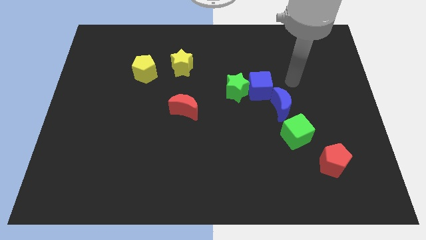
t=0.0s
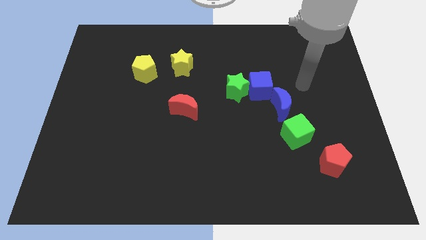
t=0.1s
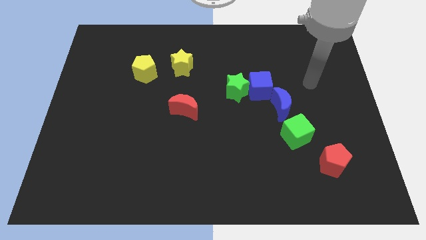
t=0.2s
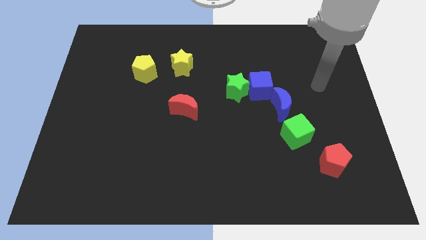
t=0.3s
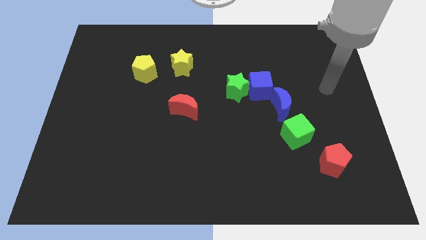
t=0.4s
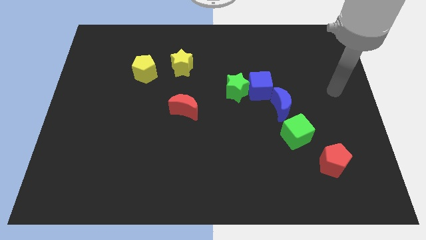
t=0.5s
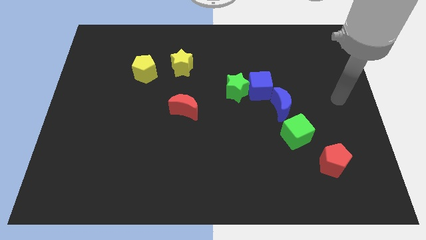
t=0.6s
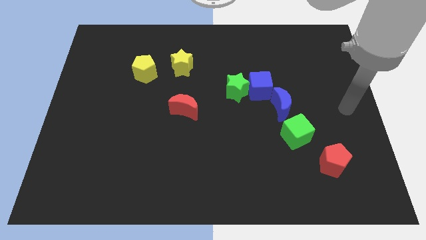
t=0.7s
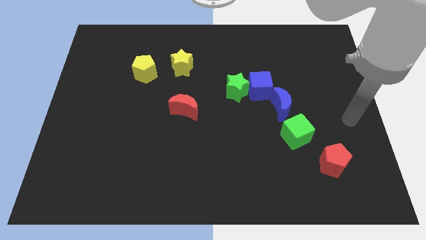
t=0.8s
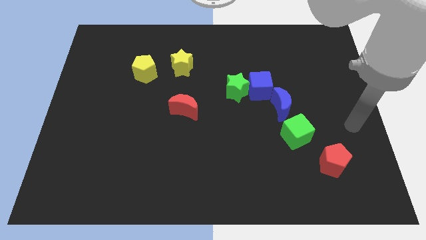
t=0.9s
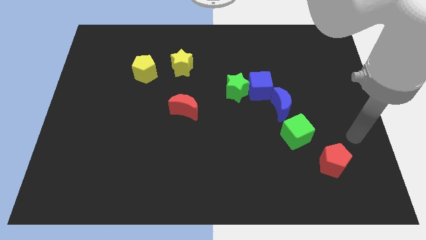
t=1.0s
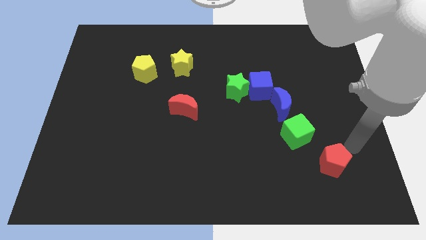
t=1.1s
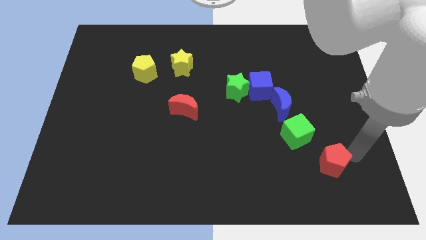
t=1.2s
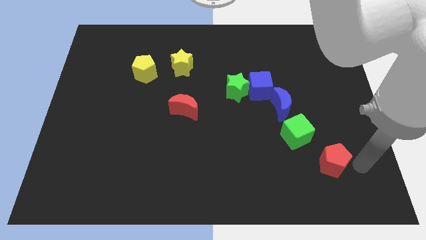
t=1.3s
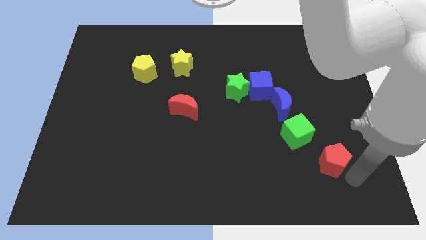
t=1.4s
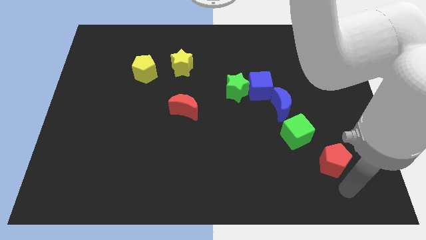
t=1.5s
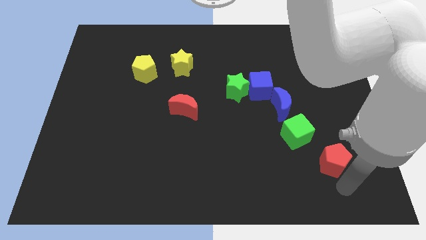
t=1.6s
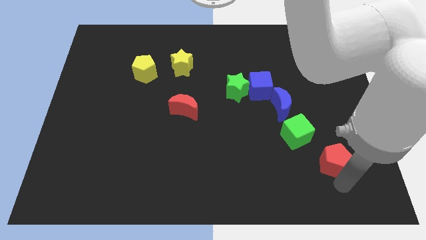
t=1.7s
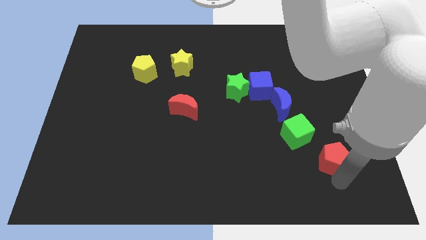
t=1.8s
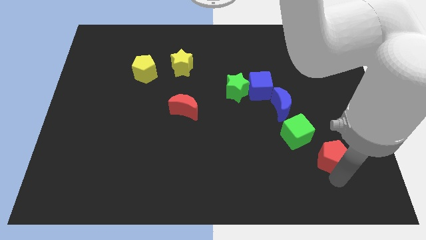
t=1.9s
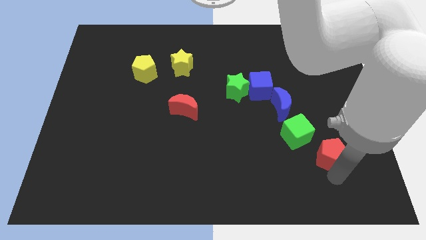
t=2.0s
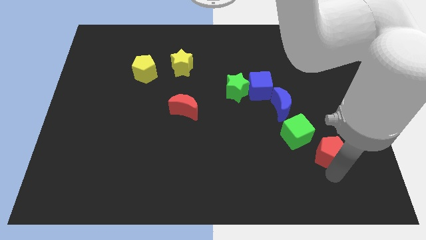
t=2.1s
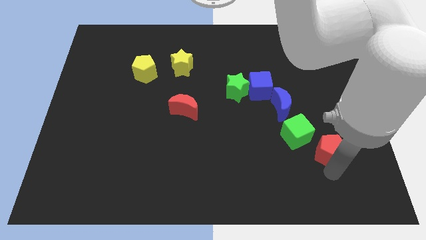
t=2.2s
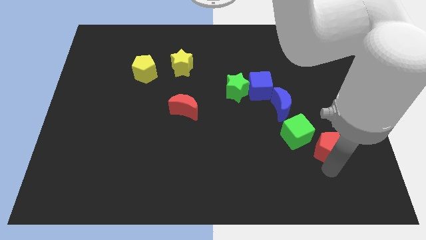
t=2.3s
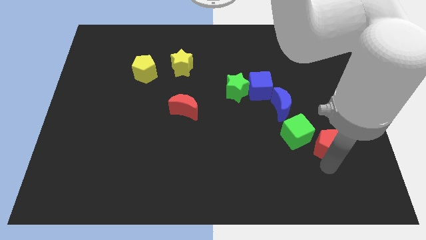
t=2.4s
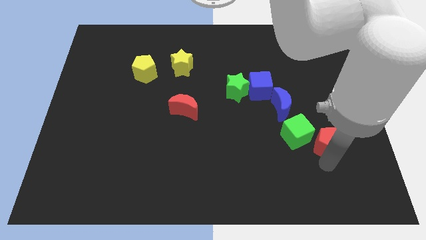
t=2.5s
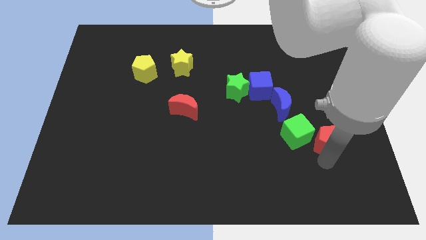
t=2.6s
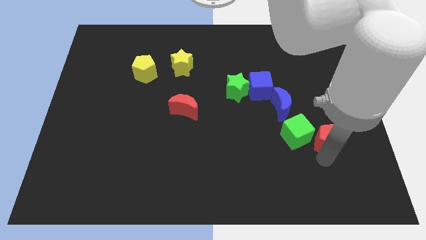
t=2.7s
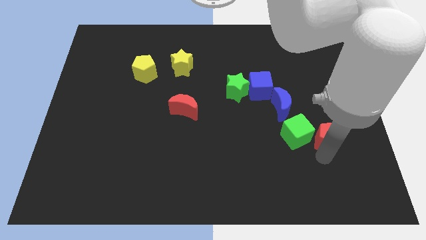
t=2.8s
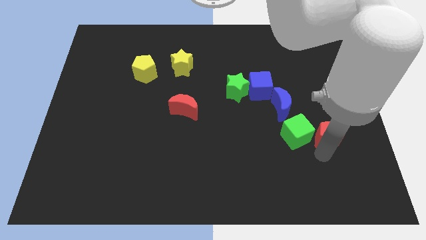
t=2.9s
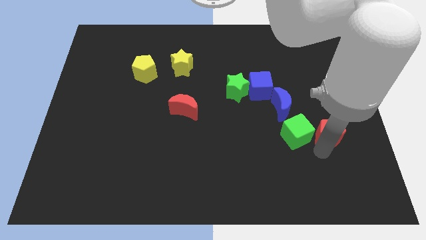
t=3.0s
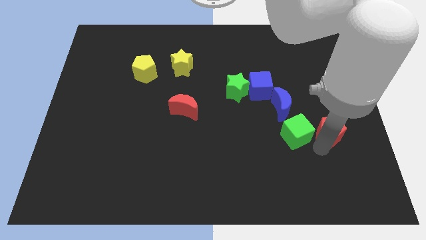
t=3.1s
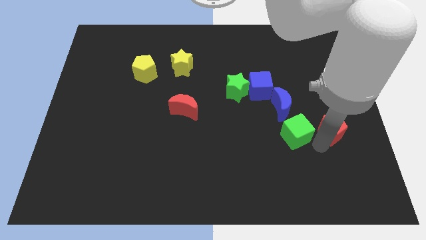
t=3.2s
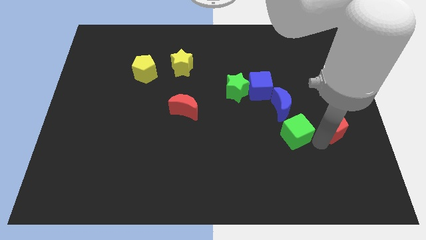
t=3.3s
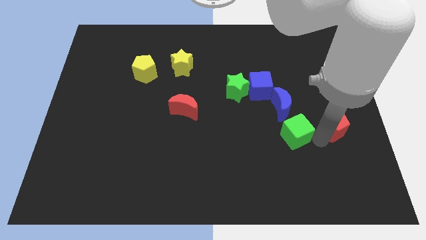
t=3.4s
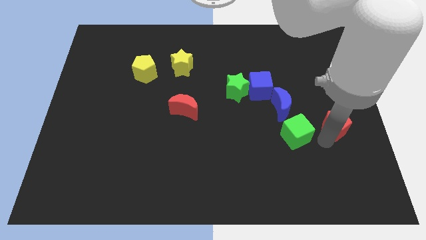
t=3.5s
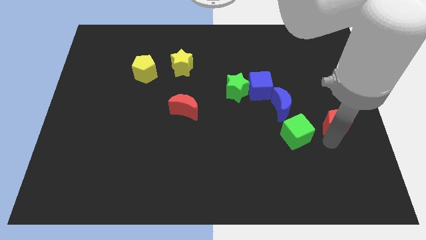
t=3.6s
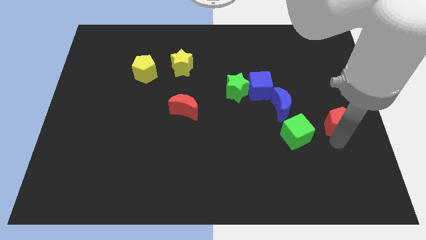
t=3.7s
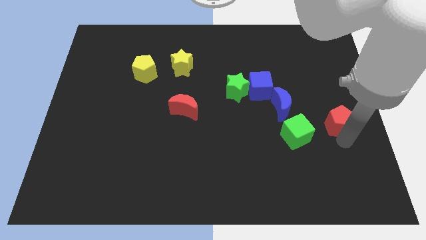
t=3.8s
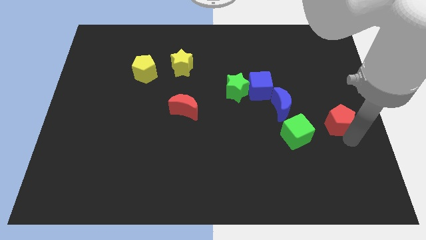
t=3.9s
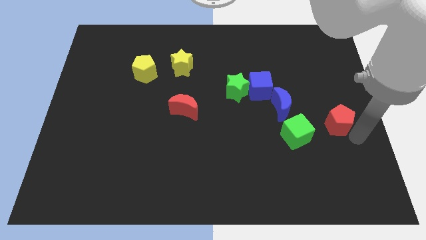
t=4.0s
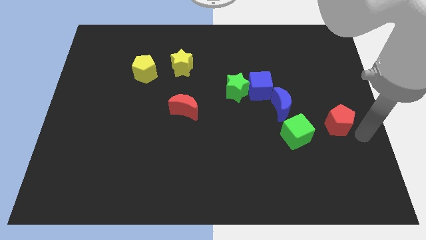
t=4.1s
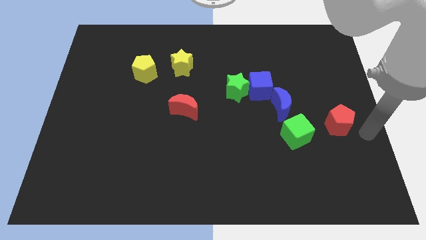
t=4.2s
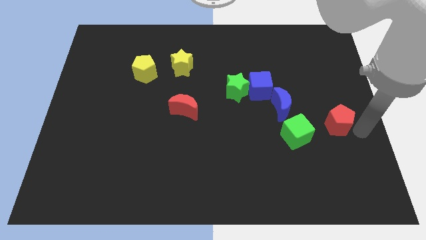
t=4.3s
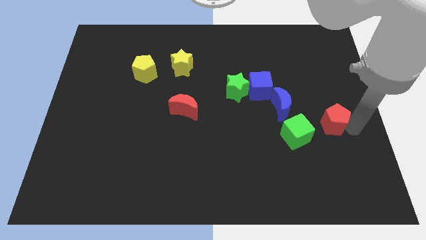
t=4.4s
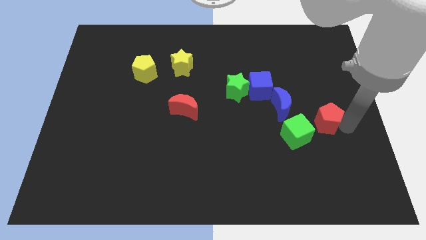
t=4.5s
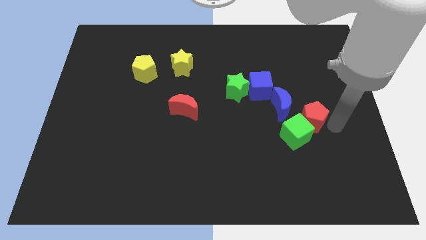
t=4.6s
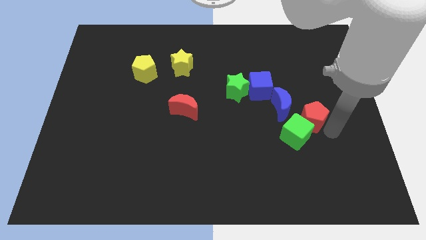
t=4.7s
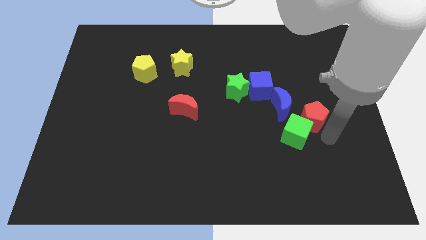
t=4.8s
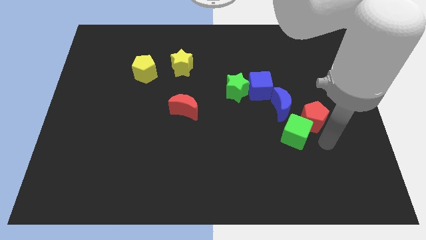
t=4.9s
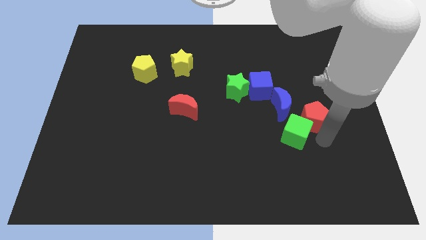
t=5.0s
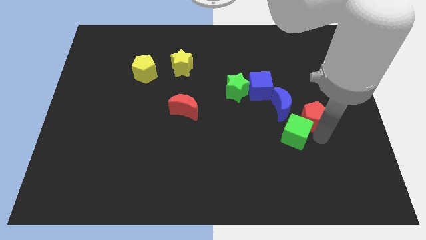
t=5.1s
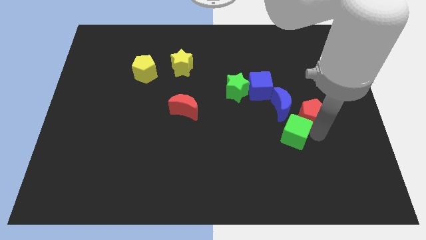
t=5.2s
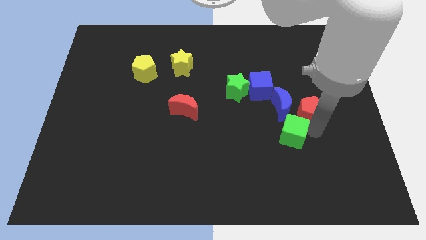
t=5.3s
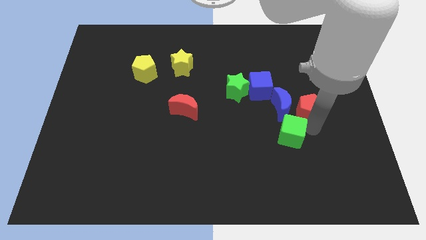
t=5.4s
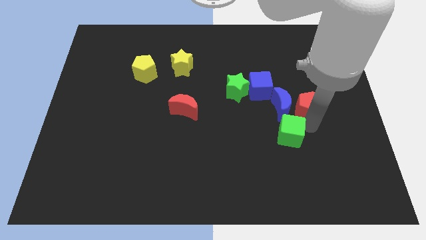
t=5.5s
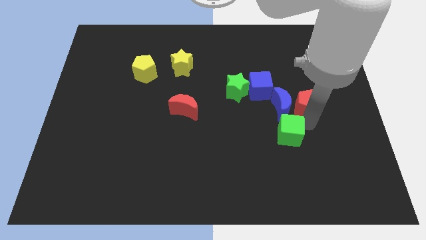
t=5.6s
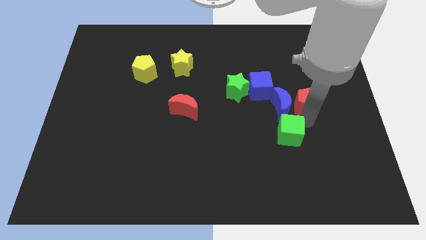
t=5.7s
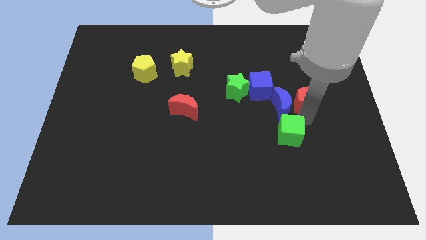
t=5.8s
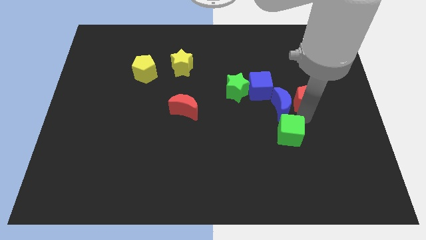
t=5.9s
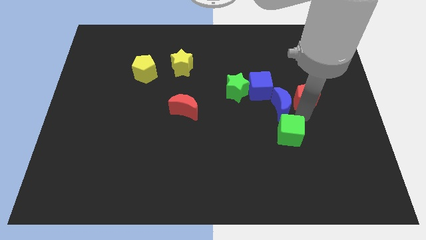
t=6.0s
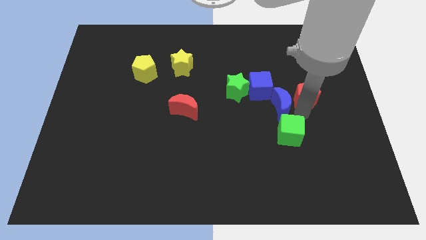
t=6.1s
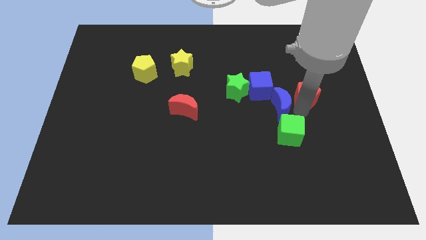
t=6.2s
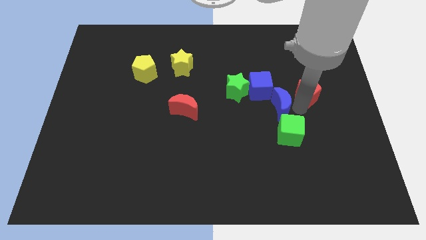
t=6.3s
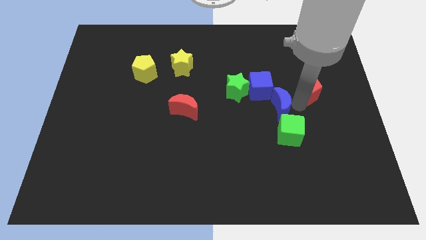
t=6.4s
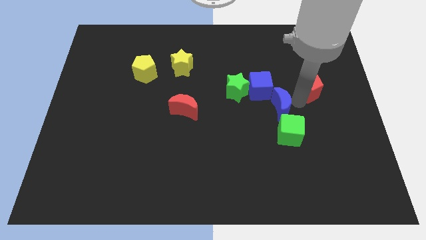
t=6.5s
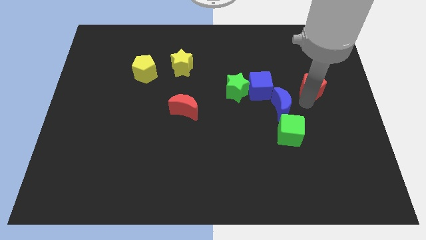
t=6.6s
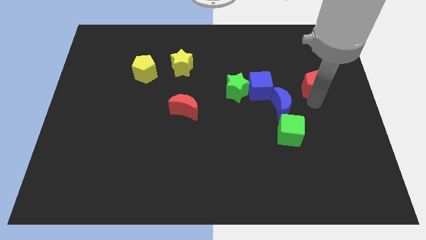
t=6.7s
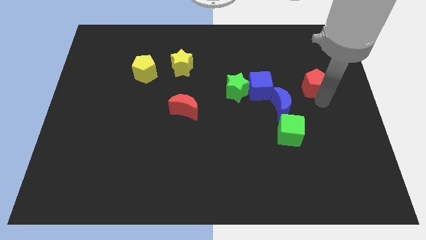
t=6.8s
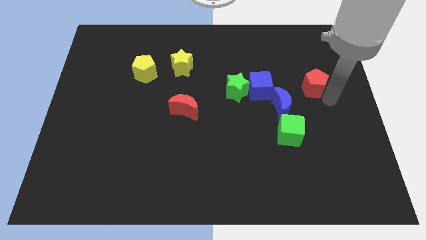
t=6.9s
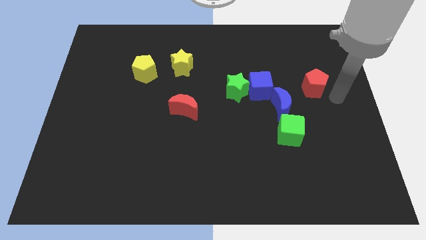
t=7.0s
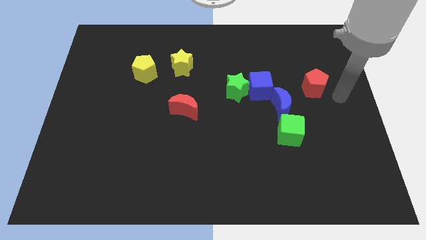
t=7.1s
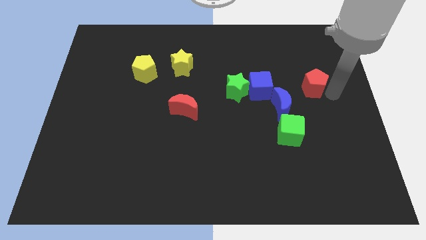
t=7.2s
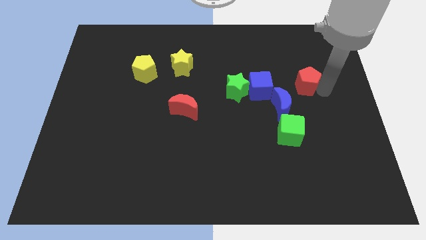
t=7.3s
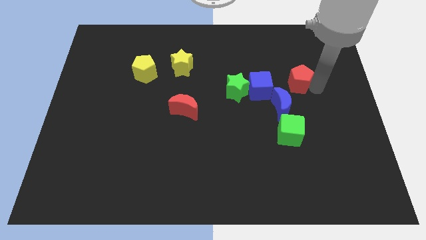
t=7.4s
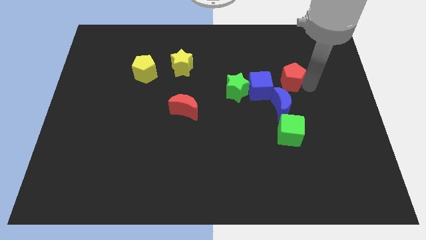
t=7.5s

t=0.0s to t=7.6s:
move the red pentagon diagonally up and to the right of the blue cube
